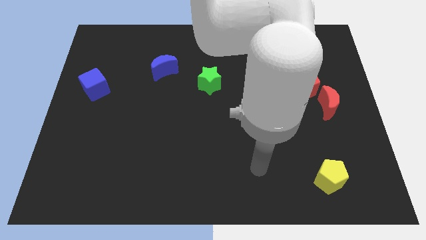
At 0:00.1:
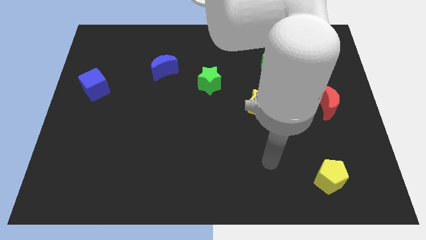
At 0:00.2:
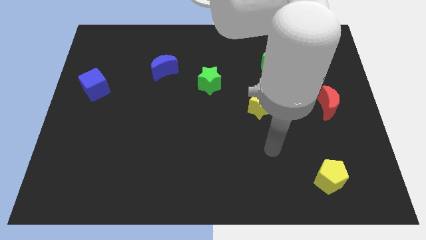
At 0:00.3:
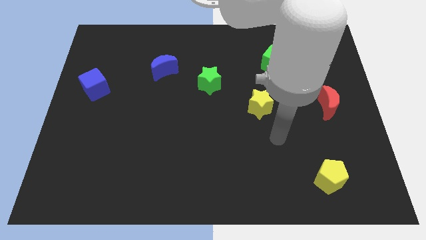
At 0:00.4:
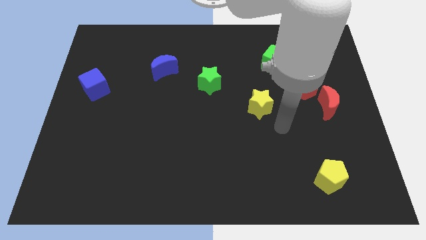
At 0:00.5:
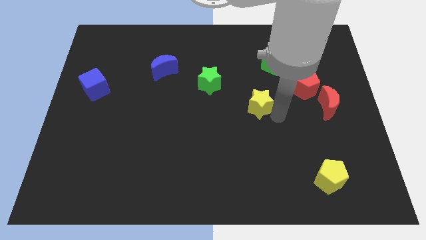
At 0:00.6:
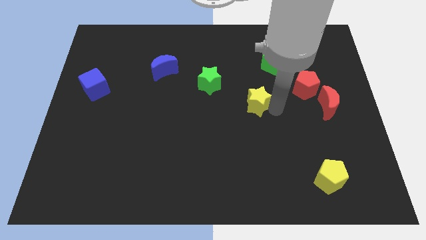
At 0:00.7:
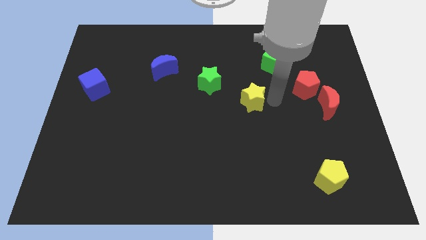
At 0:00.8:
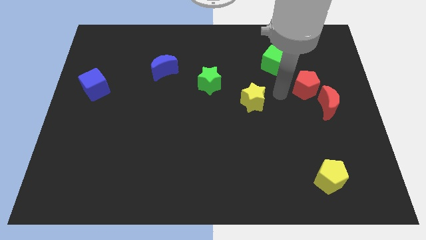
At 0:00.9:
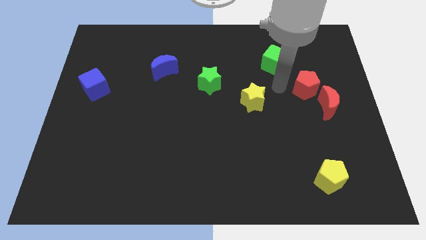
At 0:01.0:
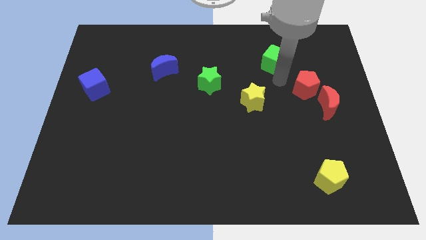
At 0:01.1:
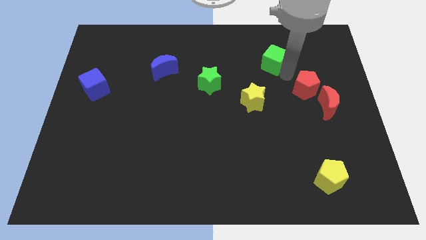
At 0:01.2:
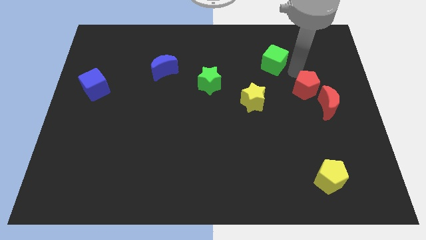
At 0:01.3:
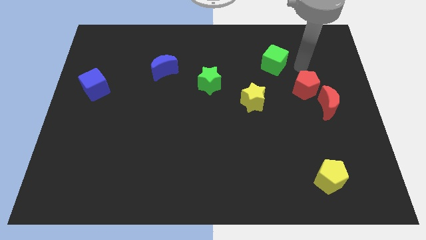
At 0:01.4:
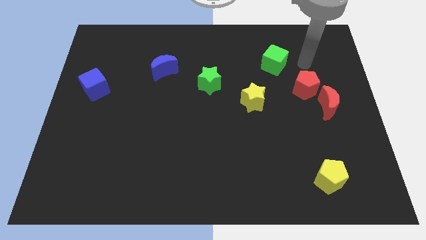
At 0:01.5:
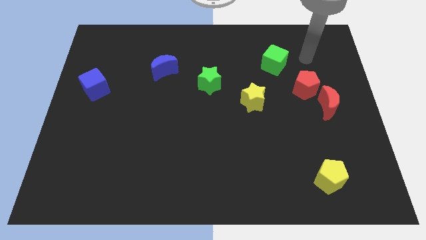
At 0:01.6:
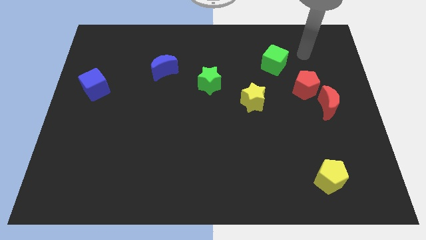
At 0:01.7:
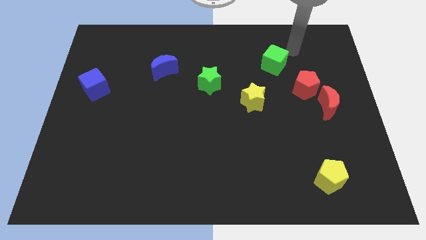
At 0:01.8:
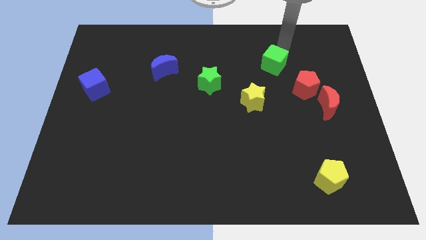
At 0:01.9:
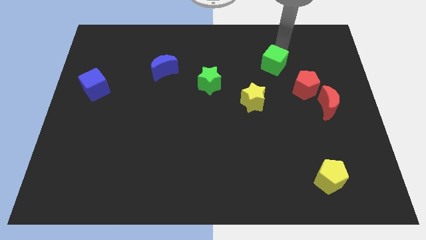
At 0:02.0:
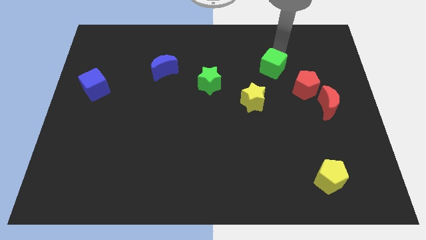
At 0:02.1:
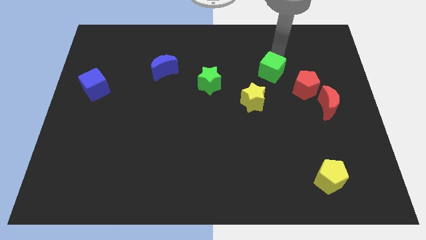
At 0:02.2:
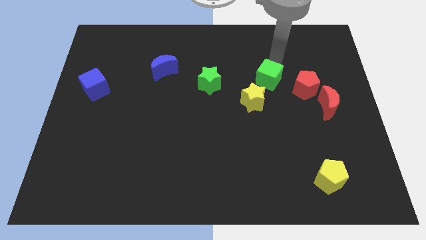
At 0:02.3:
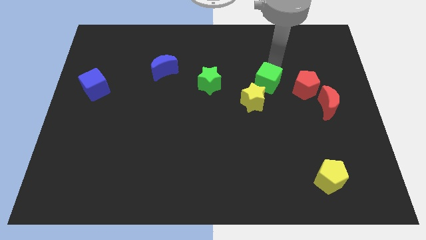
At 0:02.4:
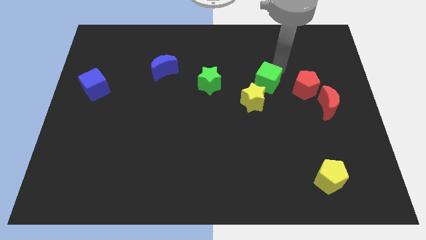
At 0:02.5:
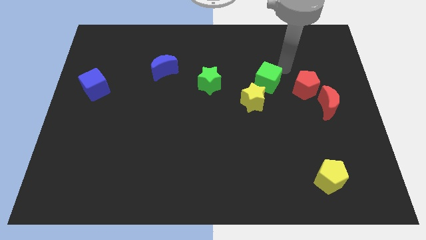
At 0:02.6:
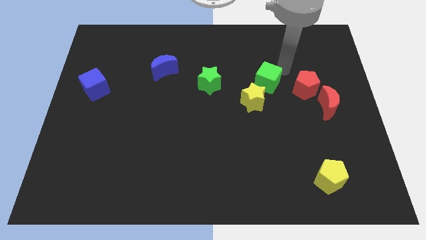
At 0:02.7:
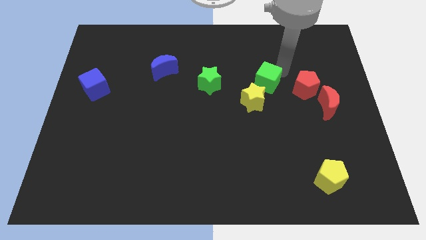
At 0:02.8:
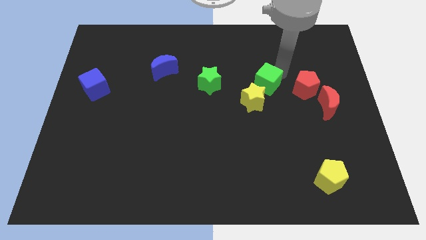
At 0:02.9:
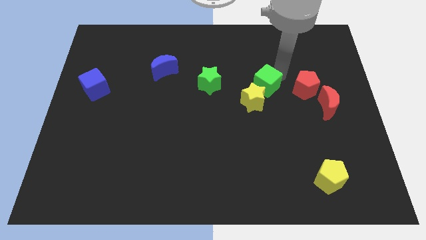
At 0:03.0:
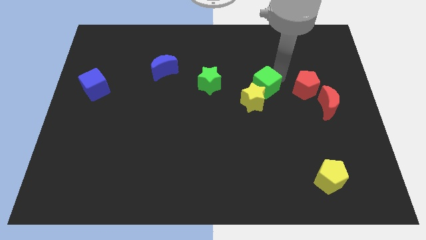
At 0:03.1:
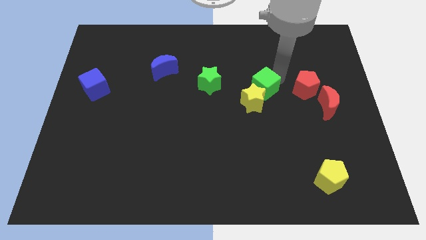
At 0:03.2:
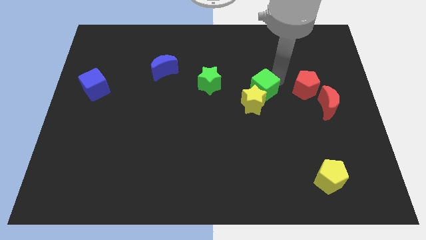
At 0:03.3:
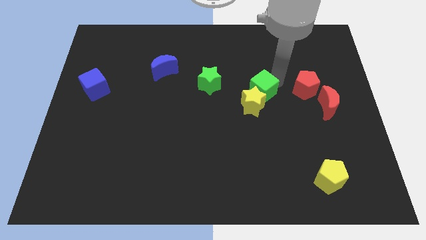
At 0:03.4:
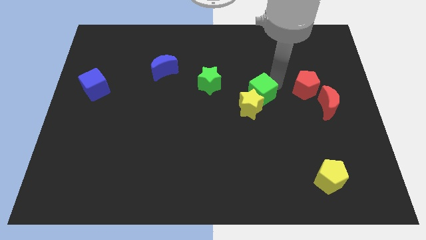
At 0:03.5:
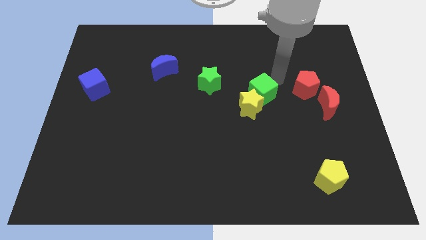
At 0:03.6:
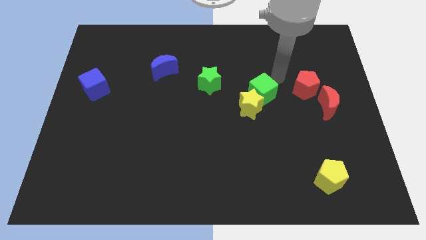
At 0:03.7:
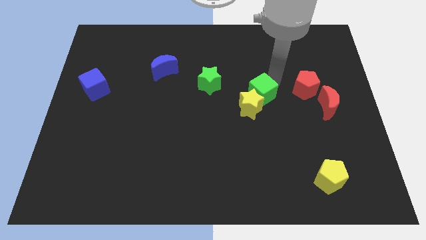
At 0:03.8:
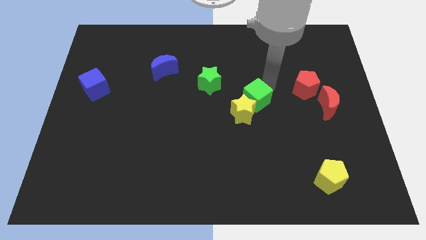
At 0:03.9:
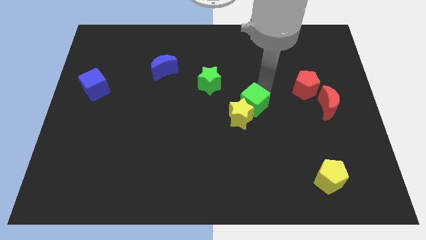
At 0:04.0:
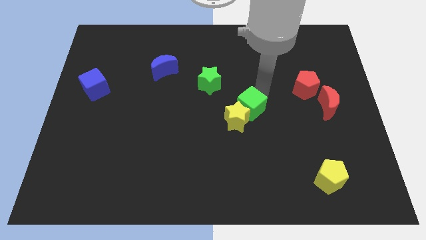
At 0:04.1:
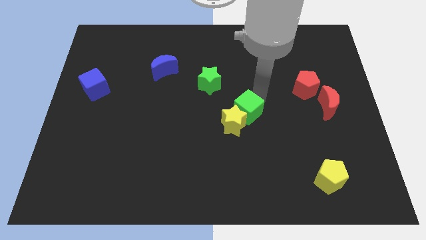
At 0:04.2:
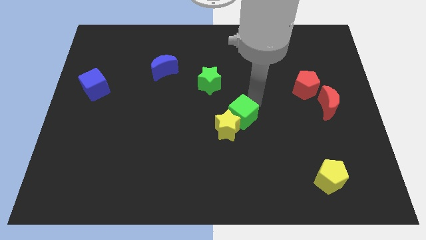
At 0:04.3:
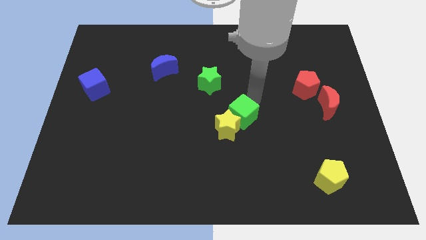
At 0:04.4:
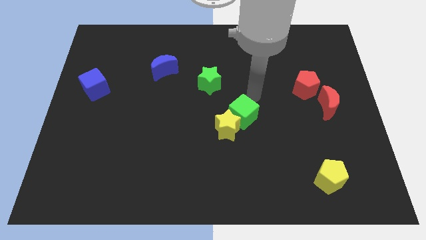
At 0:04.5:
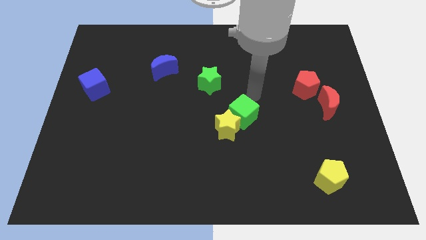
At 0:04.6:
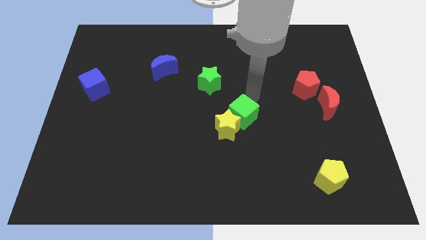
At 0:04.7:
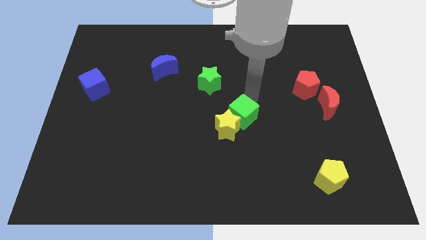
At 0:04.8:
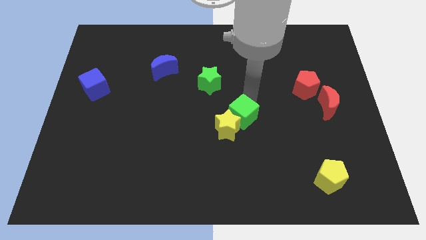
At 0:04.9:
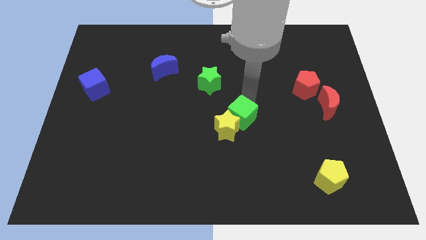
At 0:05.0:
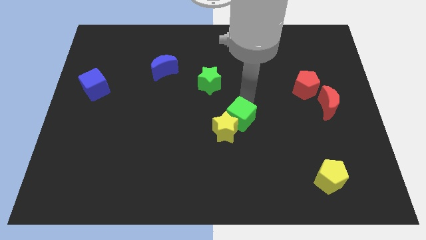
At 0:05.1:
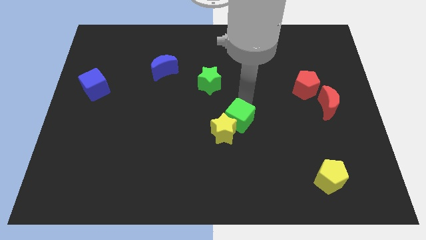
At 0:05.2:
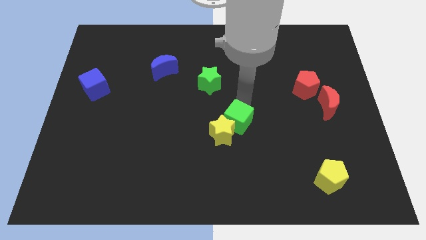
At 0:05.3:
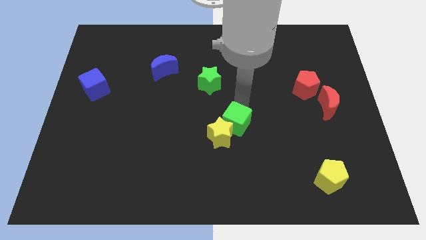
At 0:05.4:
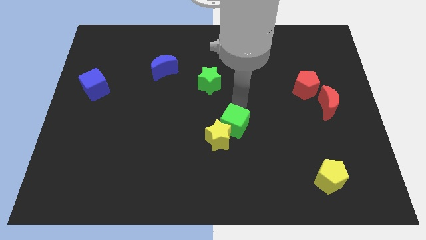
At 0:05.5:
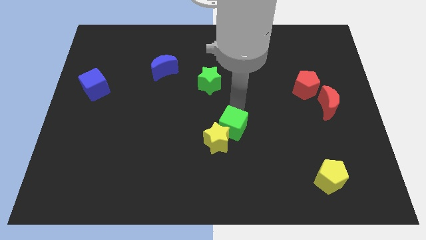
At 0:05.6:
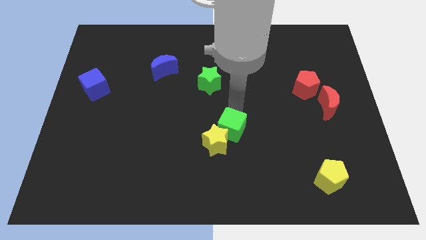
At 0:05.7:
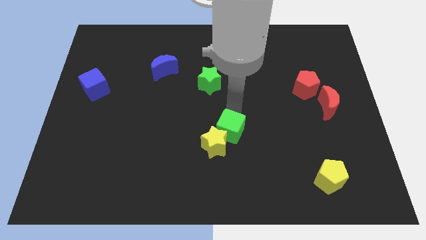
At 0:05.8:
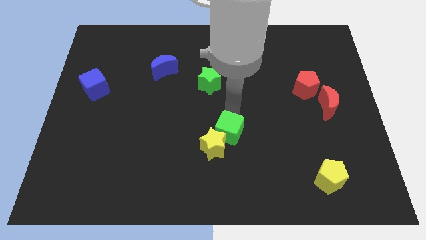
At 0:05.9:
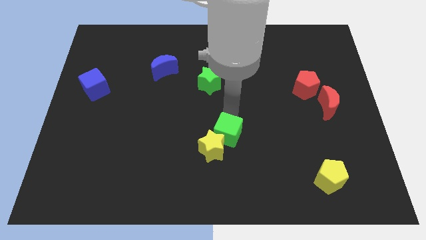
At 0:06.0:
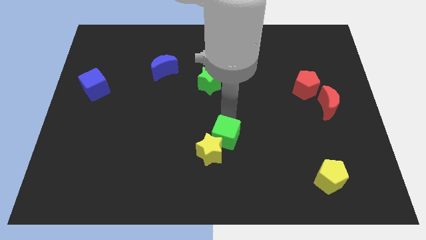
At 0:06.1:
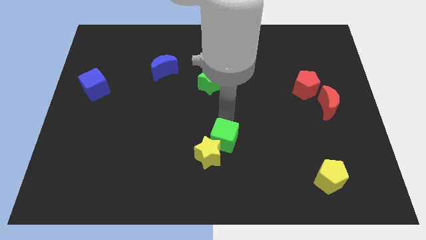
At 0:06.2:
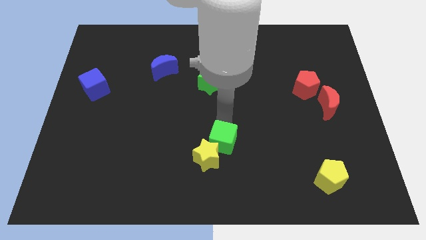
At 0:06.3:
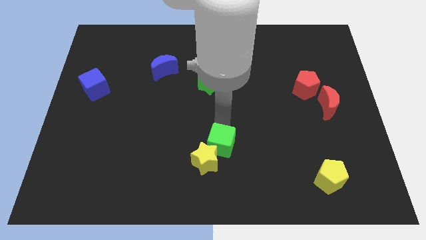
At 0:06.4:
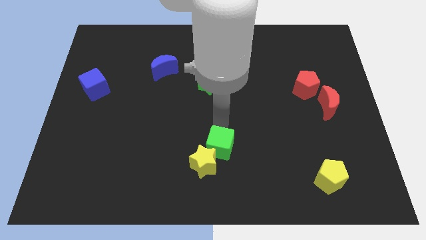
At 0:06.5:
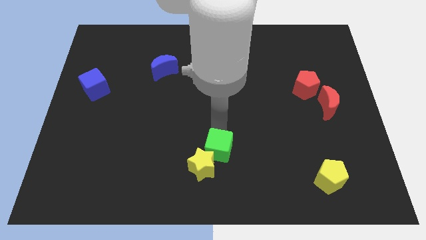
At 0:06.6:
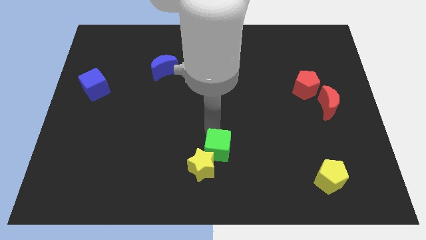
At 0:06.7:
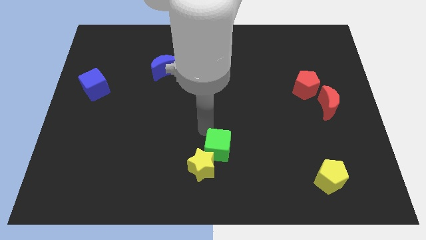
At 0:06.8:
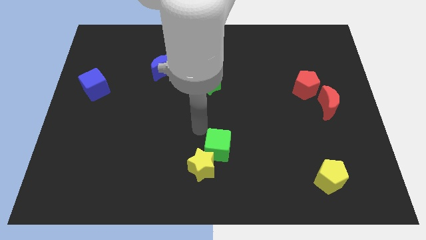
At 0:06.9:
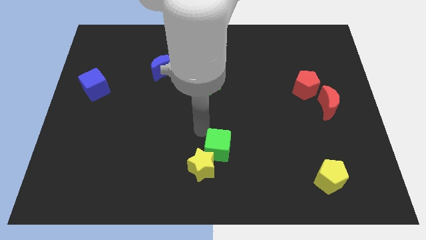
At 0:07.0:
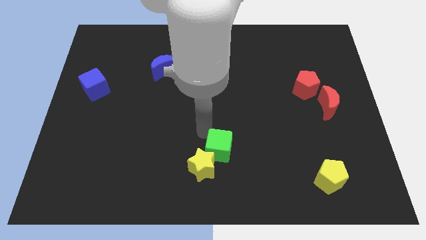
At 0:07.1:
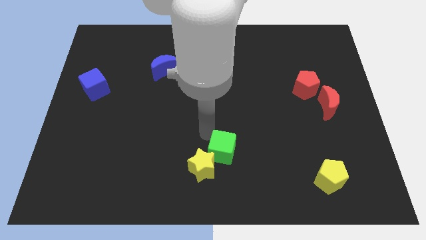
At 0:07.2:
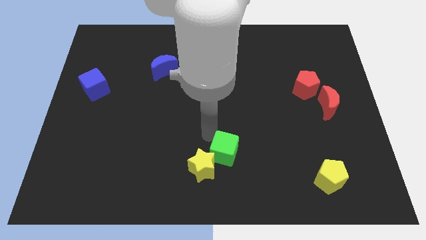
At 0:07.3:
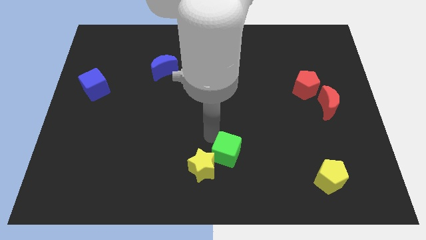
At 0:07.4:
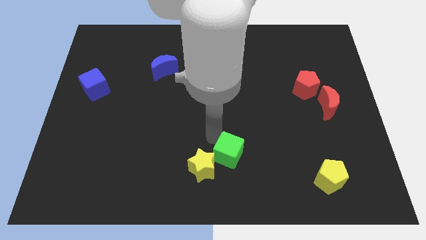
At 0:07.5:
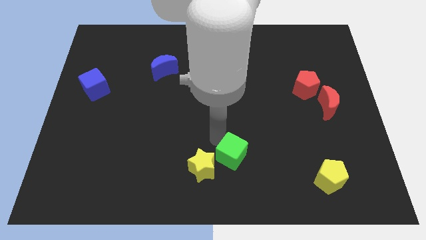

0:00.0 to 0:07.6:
slide the green cube to the bottom side
